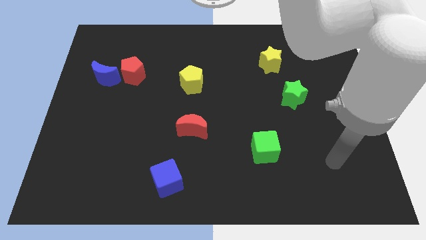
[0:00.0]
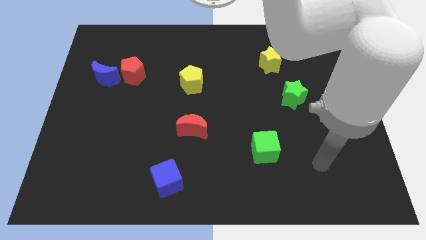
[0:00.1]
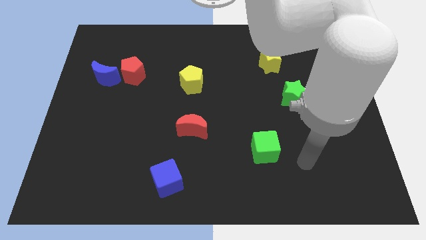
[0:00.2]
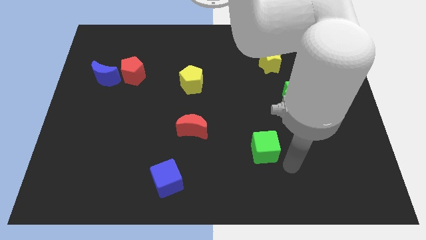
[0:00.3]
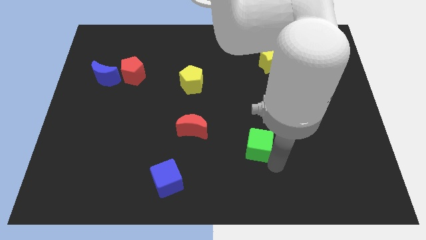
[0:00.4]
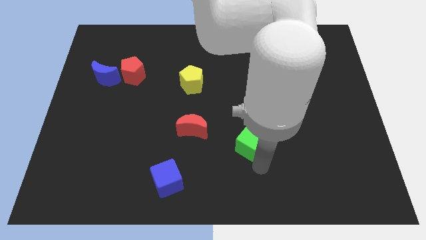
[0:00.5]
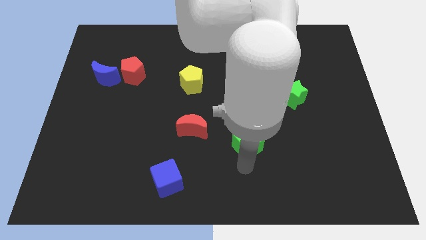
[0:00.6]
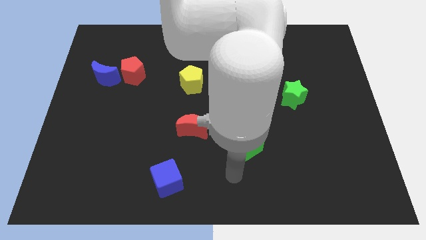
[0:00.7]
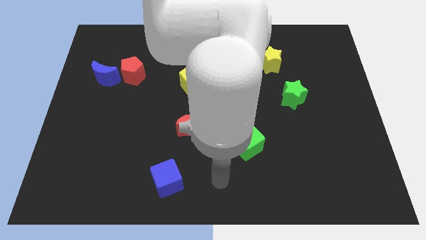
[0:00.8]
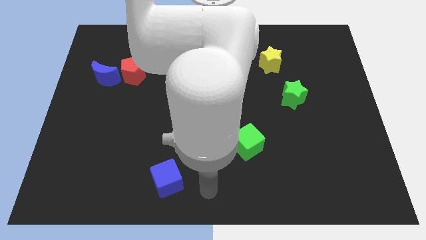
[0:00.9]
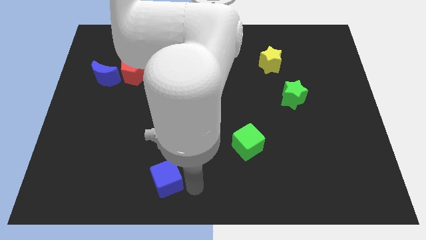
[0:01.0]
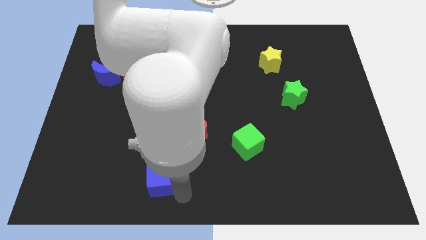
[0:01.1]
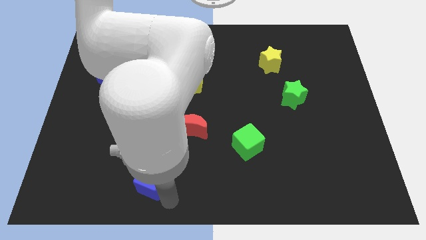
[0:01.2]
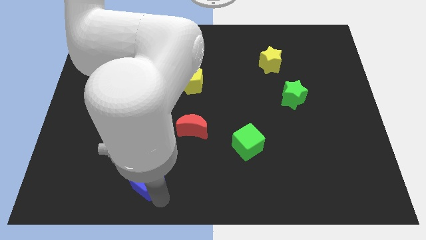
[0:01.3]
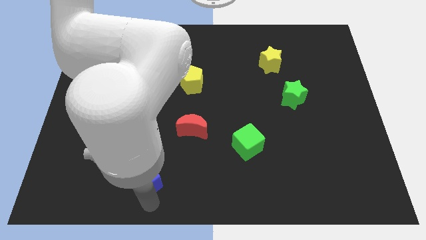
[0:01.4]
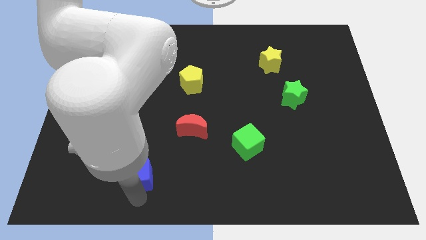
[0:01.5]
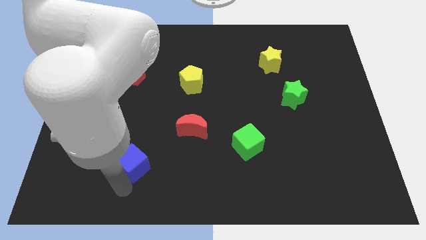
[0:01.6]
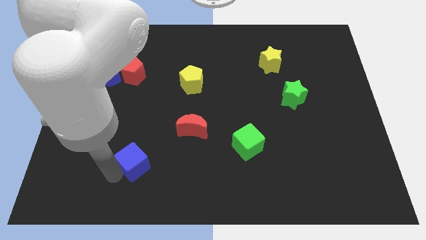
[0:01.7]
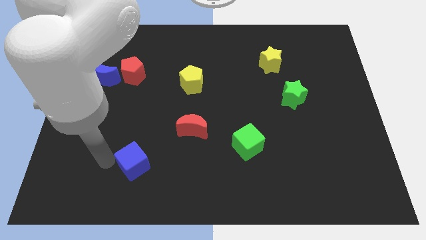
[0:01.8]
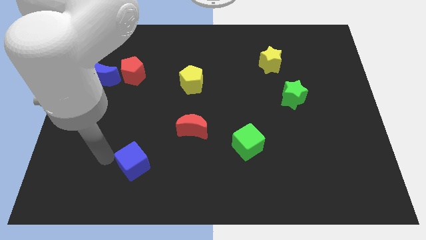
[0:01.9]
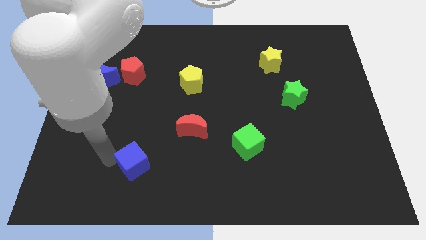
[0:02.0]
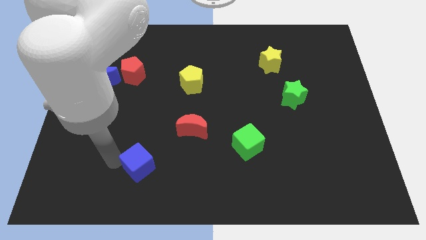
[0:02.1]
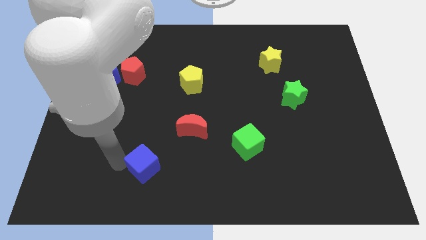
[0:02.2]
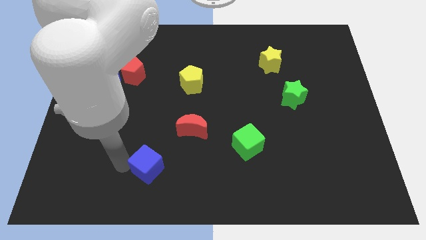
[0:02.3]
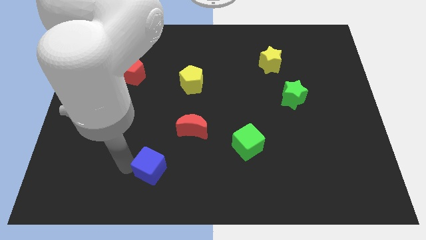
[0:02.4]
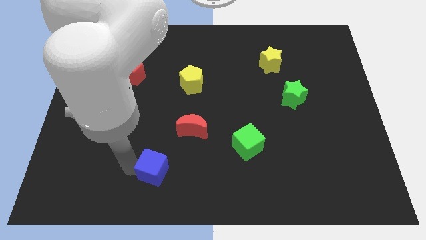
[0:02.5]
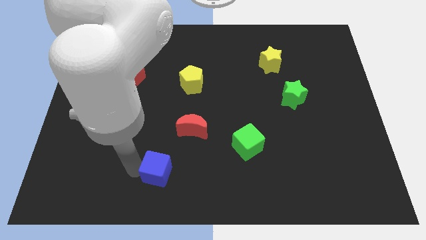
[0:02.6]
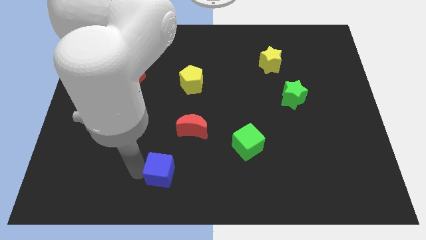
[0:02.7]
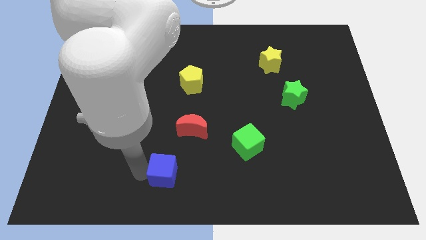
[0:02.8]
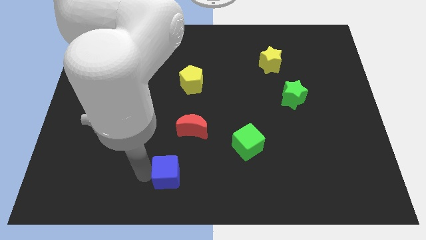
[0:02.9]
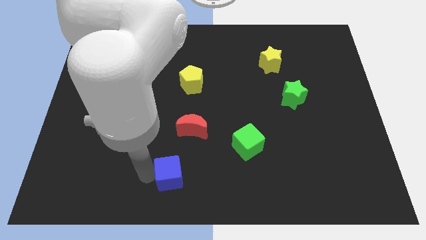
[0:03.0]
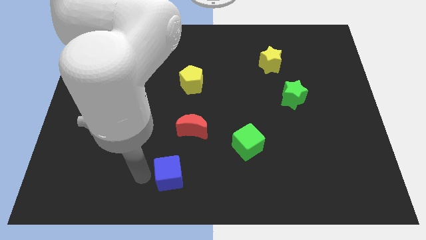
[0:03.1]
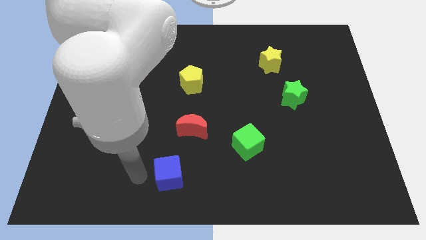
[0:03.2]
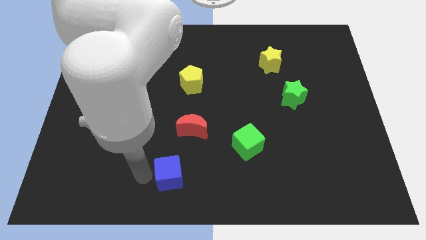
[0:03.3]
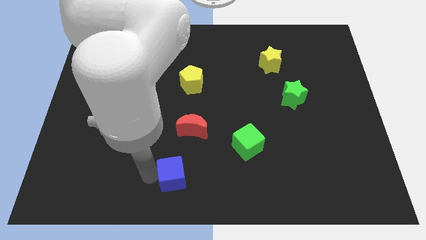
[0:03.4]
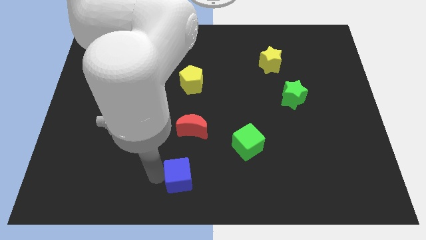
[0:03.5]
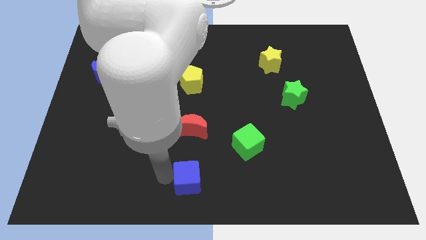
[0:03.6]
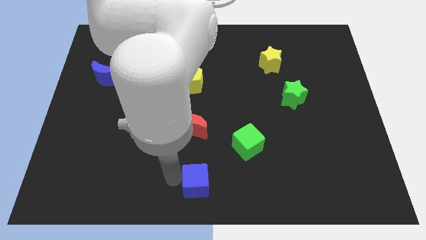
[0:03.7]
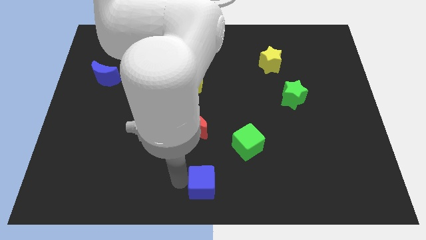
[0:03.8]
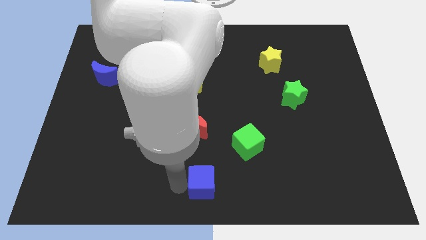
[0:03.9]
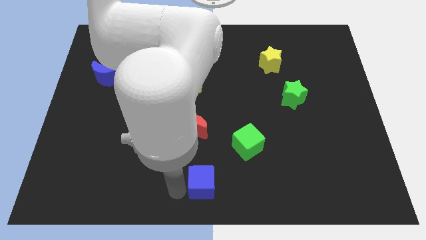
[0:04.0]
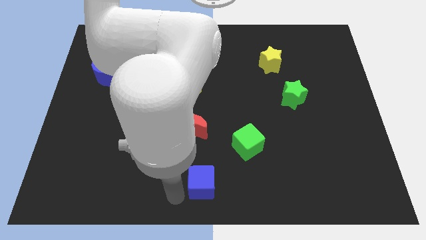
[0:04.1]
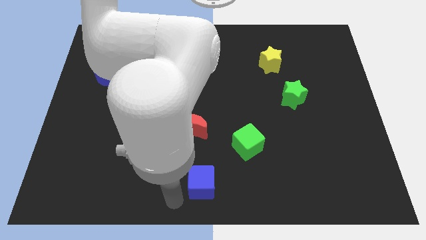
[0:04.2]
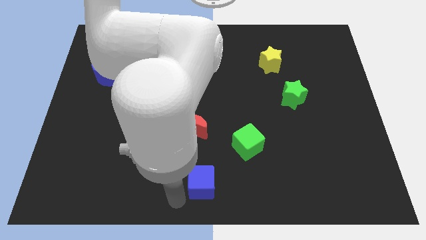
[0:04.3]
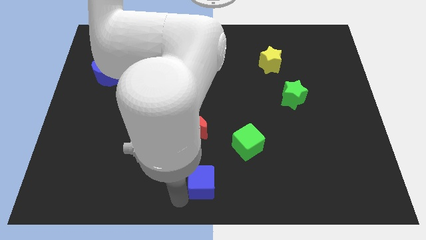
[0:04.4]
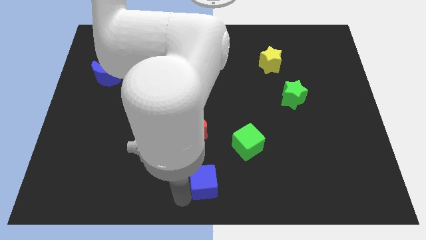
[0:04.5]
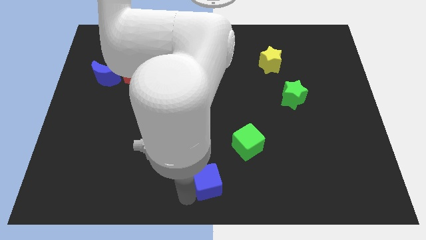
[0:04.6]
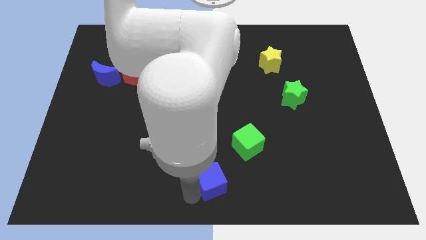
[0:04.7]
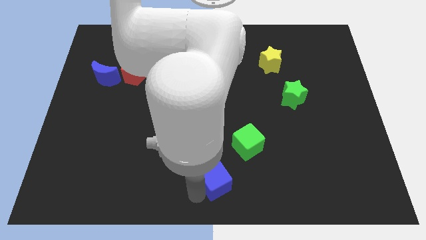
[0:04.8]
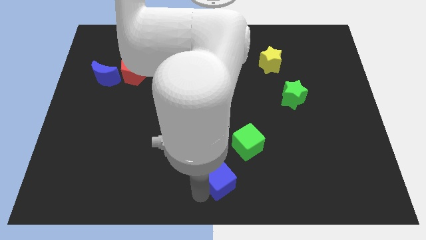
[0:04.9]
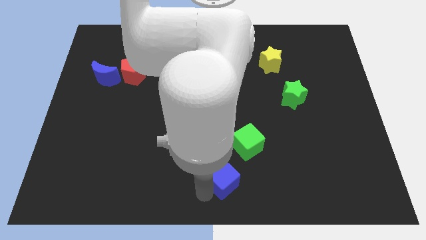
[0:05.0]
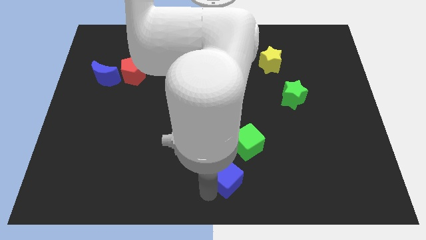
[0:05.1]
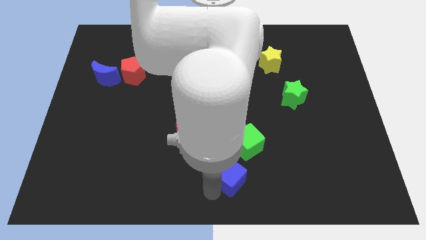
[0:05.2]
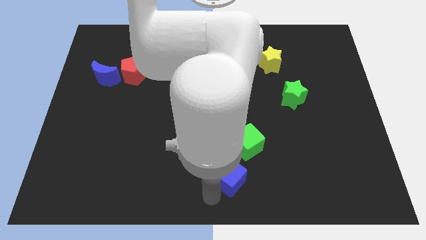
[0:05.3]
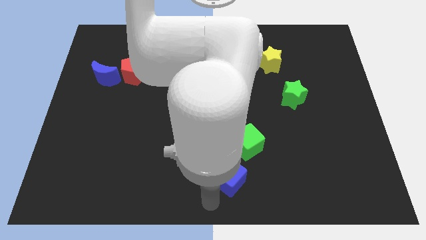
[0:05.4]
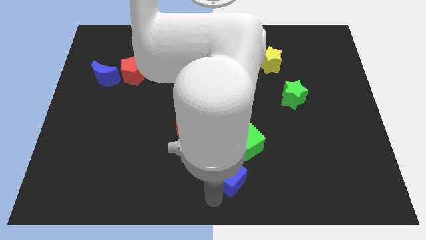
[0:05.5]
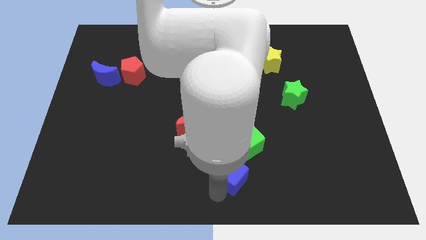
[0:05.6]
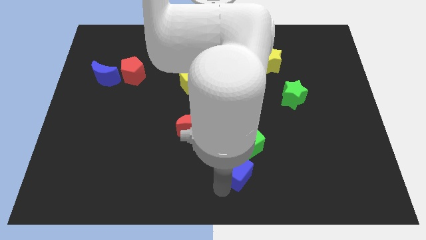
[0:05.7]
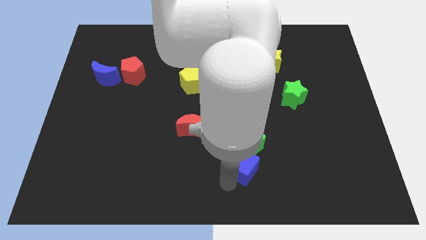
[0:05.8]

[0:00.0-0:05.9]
slide the blue cube towards the green cube

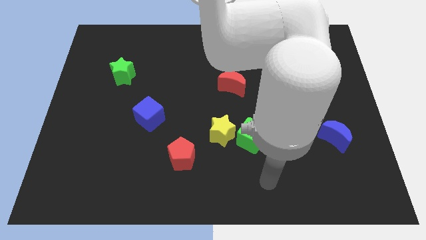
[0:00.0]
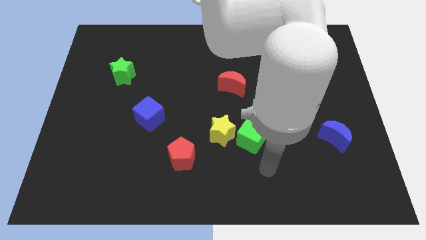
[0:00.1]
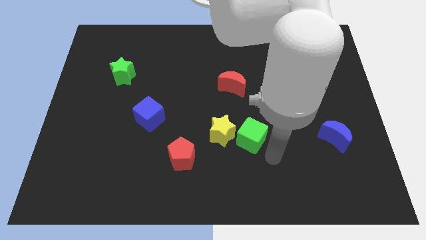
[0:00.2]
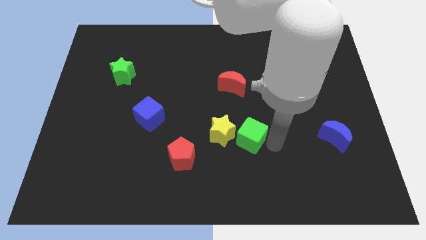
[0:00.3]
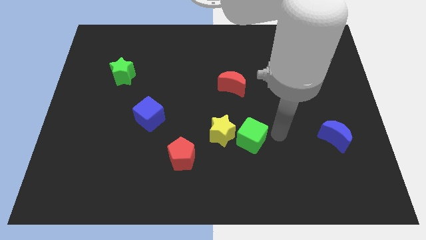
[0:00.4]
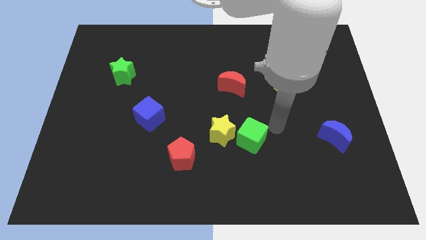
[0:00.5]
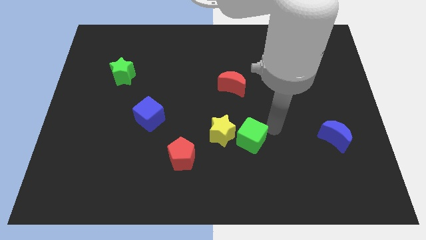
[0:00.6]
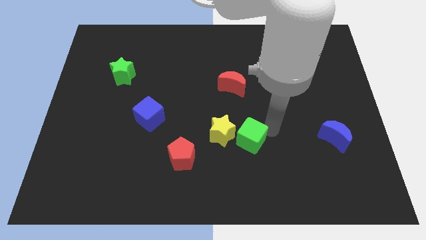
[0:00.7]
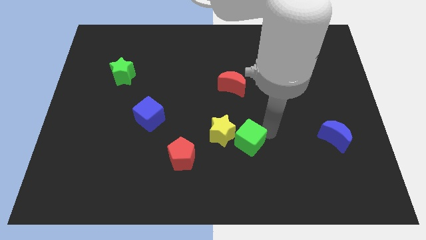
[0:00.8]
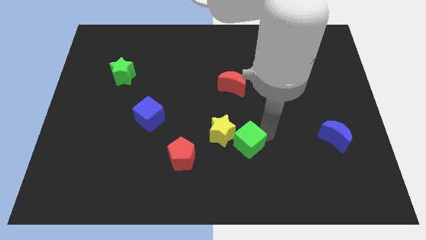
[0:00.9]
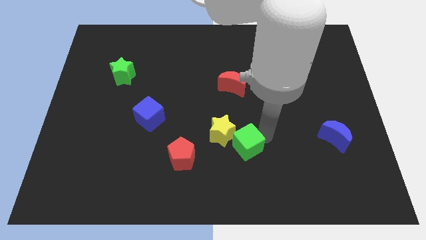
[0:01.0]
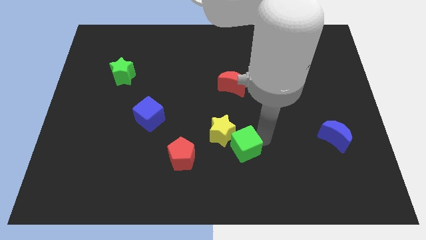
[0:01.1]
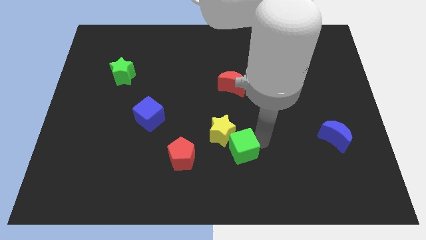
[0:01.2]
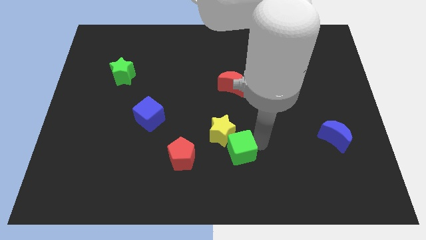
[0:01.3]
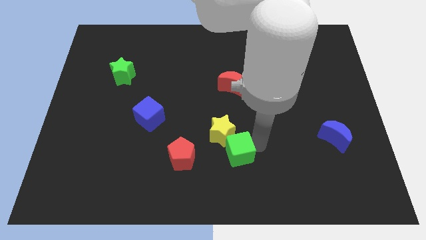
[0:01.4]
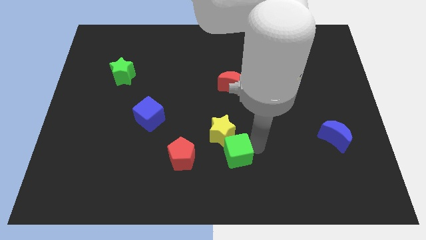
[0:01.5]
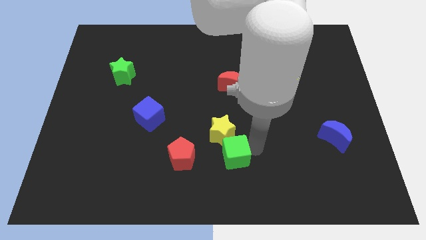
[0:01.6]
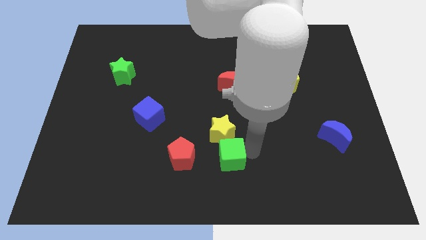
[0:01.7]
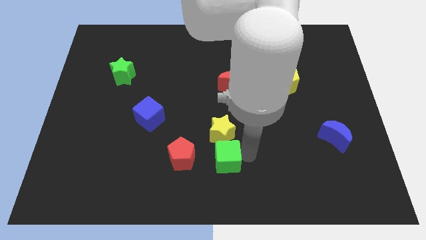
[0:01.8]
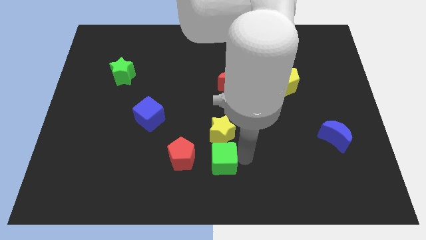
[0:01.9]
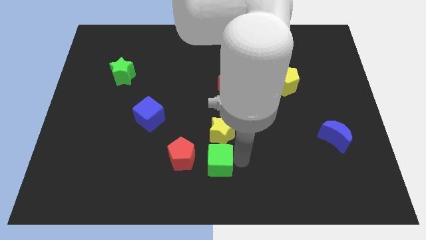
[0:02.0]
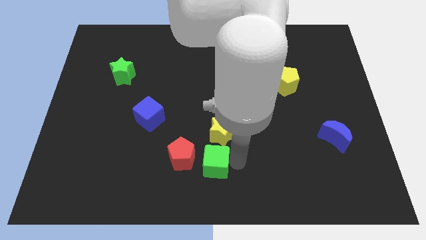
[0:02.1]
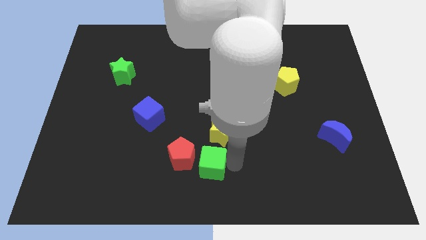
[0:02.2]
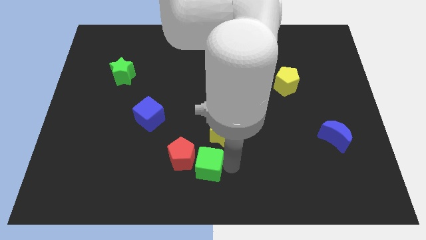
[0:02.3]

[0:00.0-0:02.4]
slide the green cube next to the red pentagon
